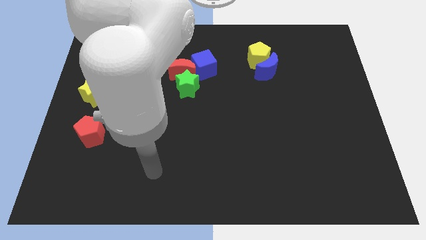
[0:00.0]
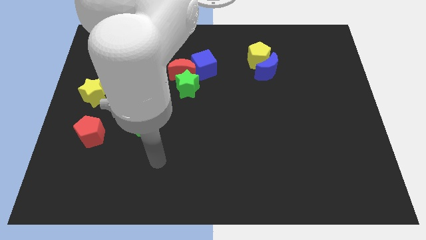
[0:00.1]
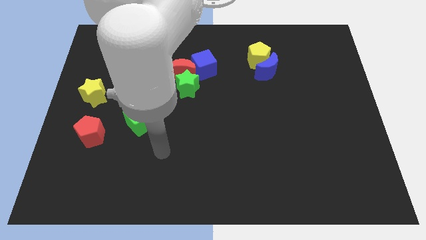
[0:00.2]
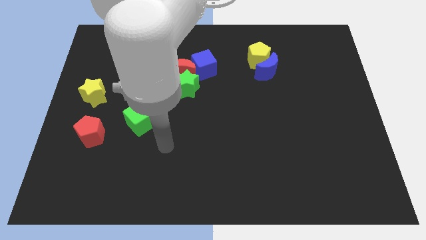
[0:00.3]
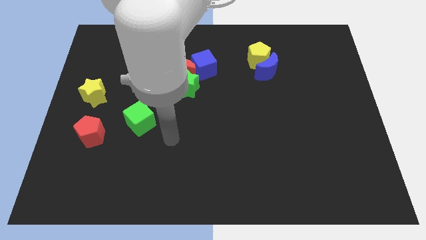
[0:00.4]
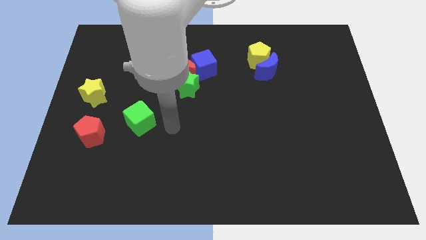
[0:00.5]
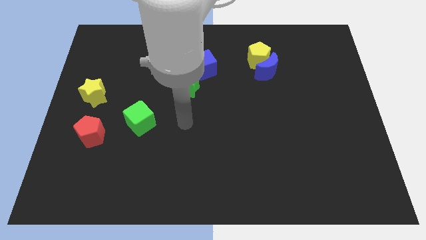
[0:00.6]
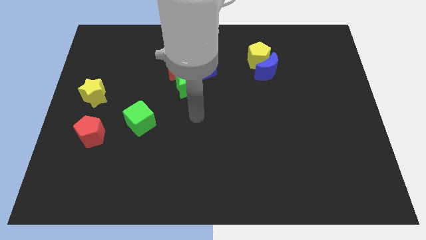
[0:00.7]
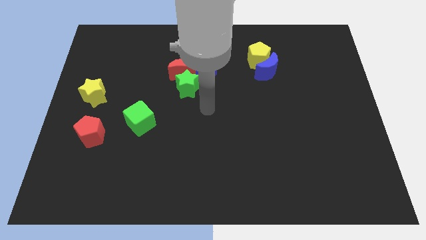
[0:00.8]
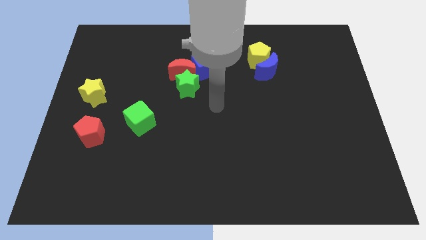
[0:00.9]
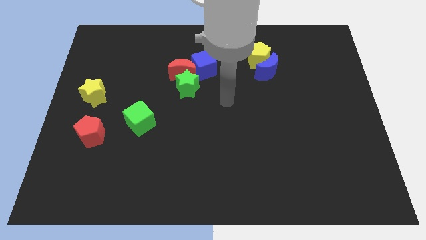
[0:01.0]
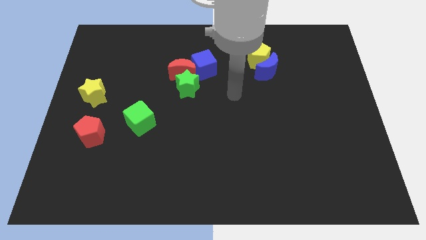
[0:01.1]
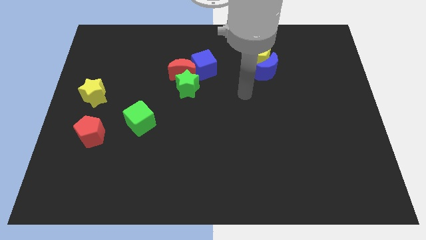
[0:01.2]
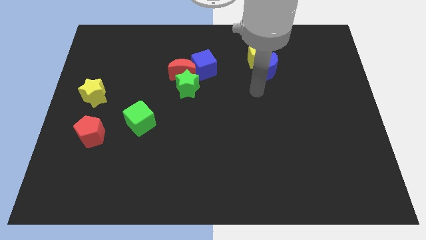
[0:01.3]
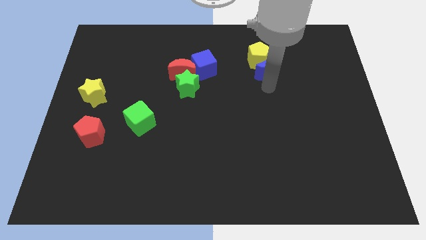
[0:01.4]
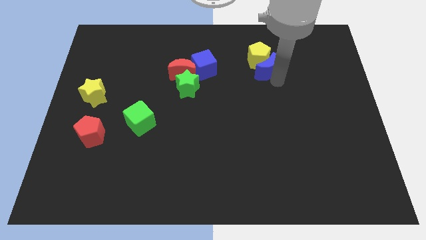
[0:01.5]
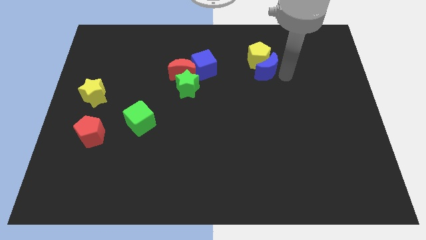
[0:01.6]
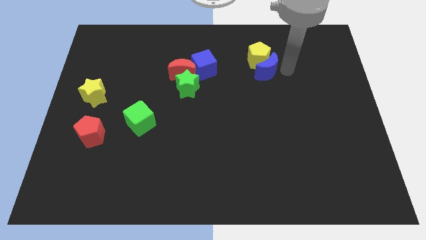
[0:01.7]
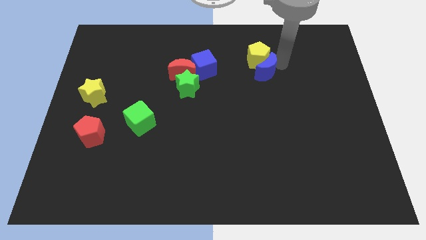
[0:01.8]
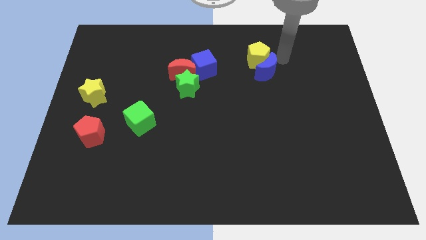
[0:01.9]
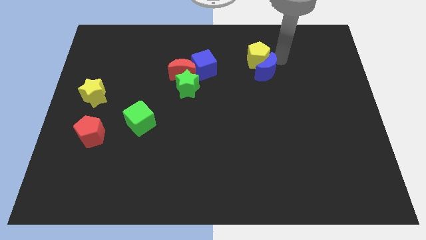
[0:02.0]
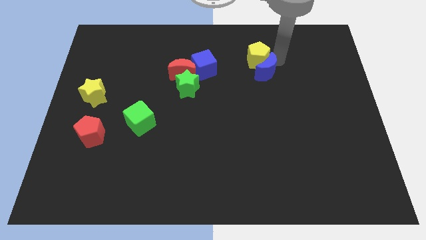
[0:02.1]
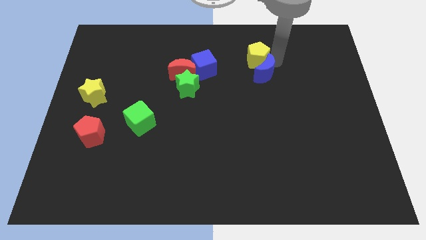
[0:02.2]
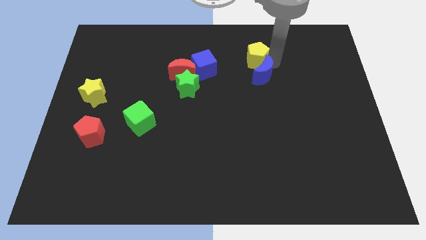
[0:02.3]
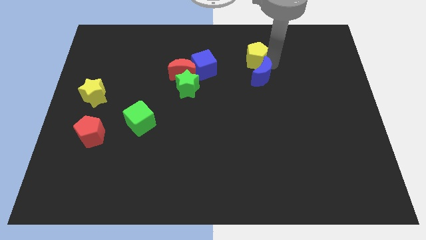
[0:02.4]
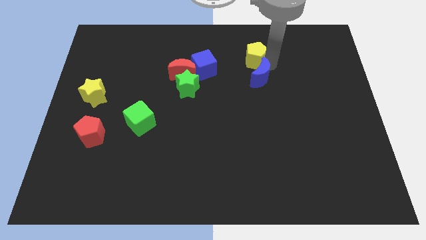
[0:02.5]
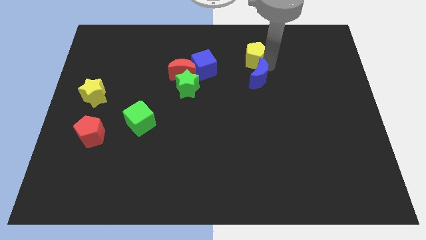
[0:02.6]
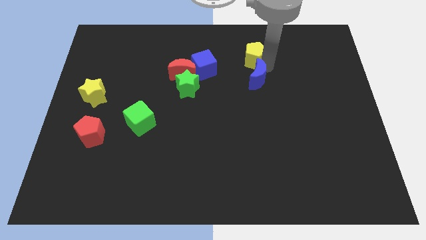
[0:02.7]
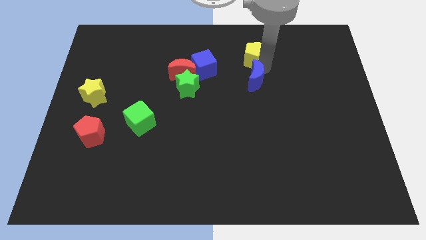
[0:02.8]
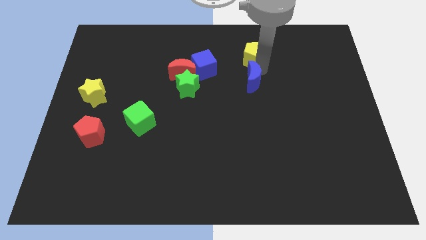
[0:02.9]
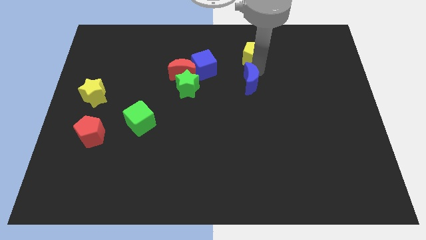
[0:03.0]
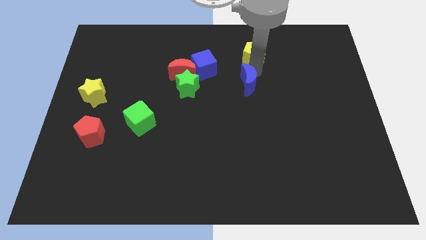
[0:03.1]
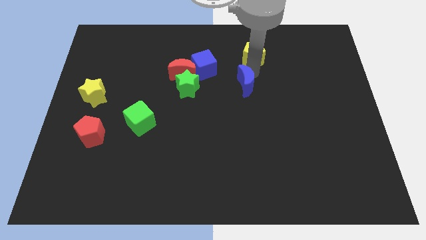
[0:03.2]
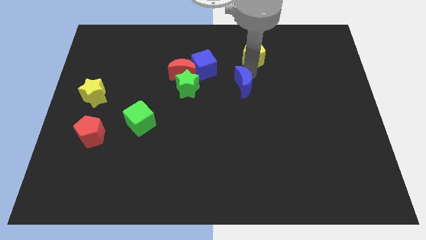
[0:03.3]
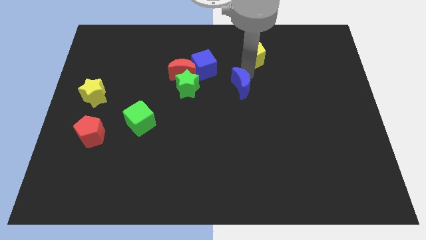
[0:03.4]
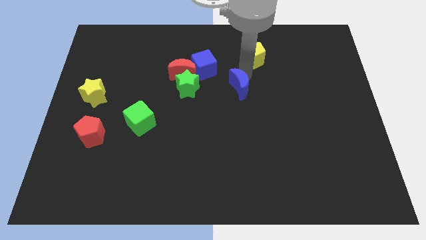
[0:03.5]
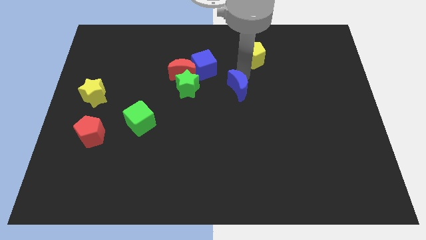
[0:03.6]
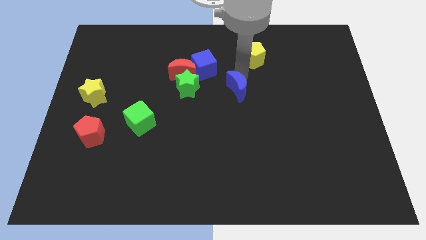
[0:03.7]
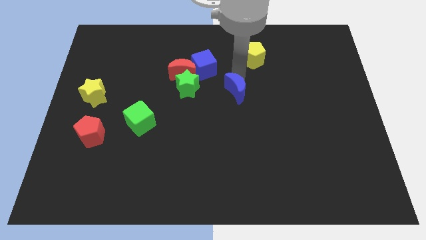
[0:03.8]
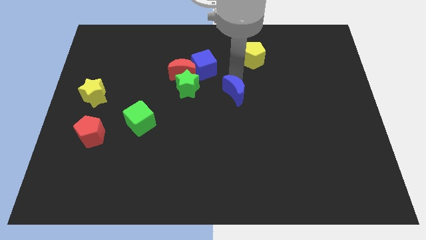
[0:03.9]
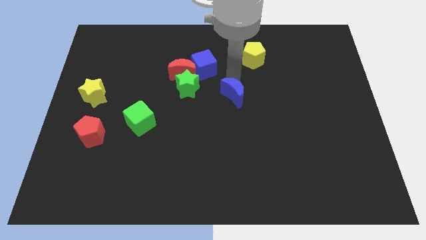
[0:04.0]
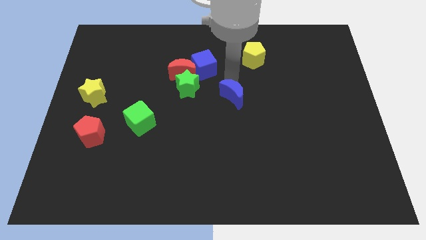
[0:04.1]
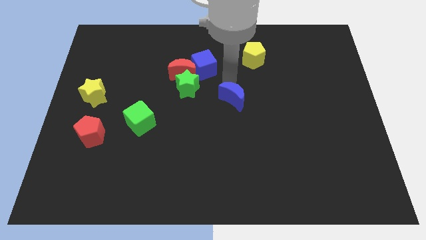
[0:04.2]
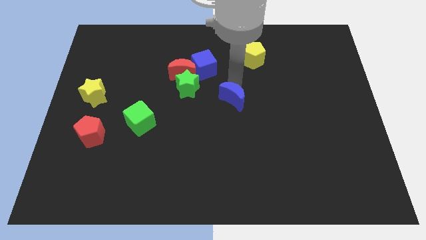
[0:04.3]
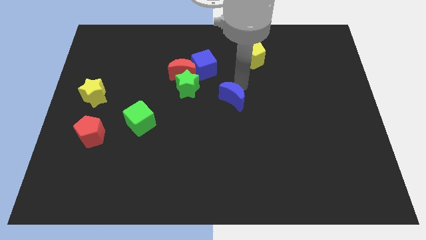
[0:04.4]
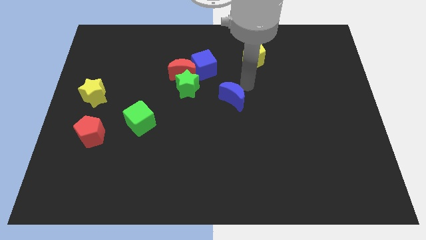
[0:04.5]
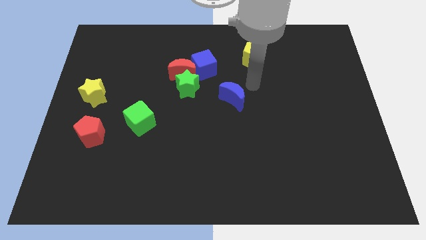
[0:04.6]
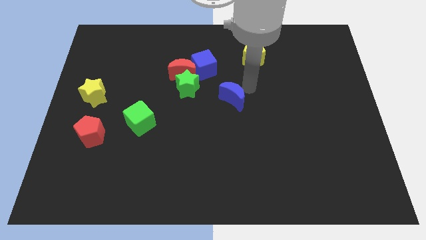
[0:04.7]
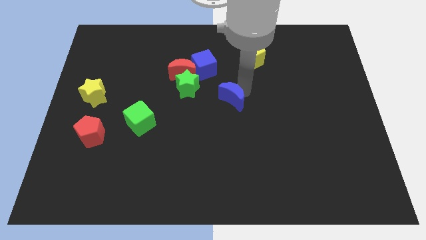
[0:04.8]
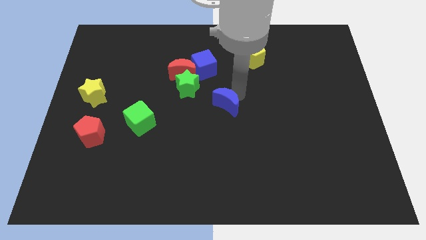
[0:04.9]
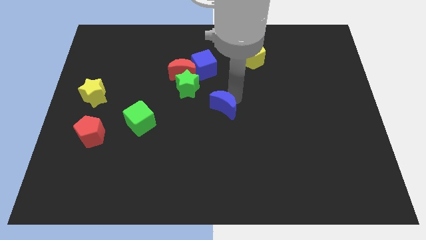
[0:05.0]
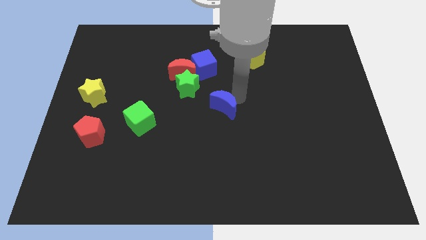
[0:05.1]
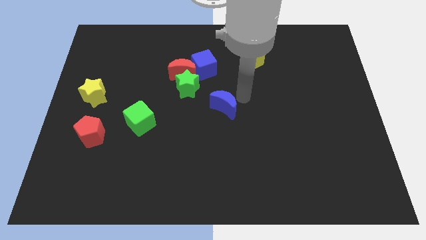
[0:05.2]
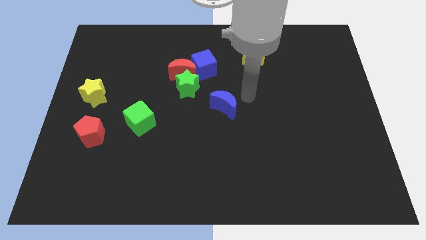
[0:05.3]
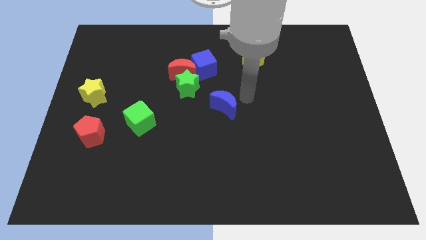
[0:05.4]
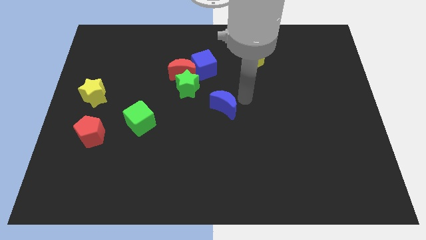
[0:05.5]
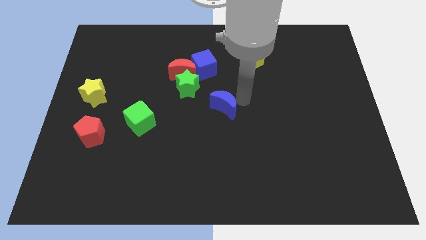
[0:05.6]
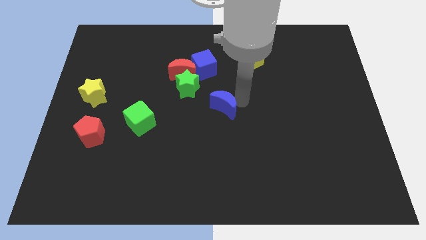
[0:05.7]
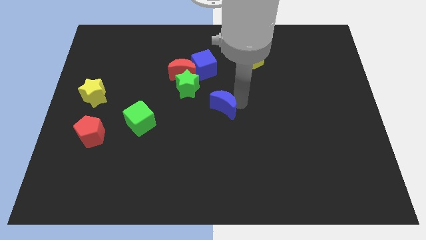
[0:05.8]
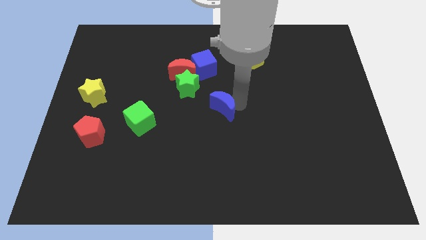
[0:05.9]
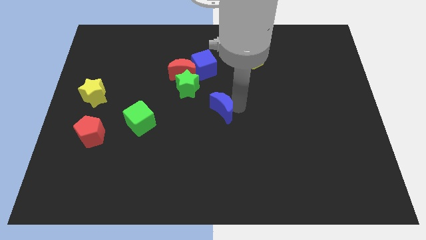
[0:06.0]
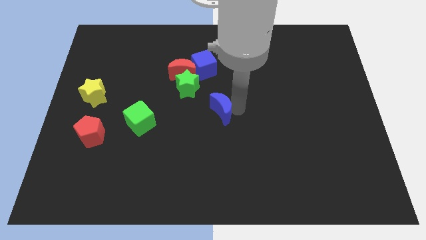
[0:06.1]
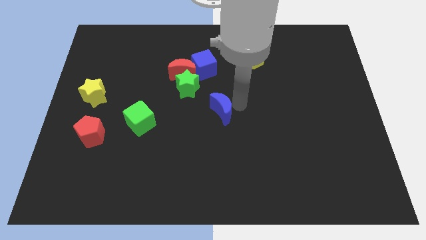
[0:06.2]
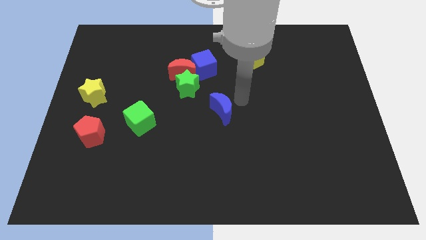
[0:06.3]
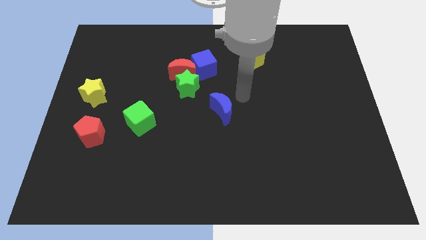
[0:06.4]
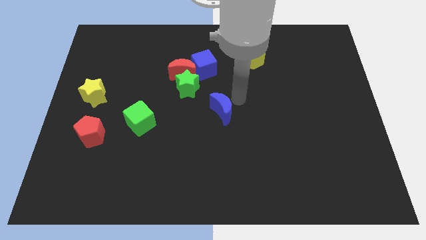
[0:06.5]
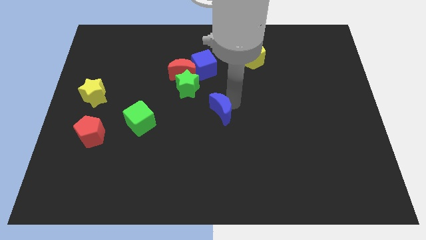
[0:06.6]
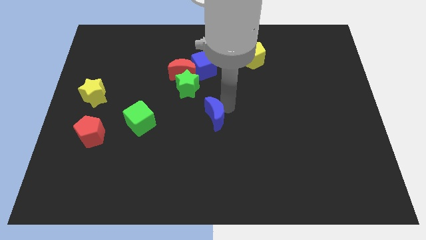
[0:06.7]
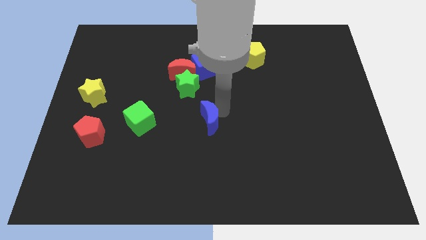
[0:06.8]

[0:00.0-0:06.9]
push the blue moon diagonally downwards and to the left

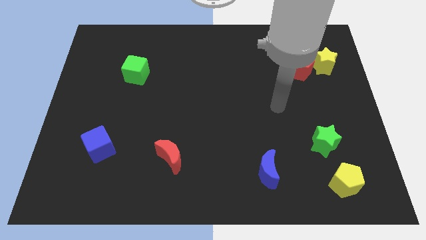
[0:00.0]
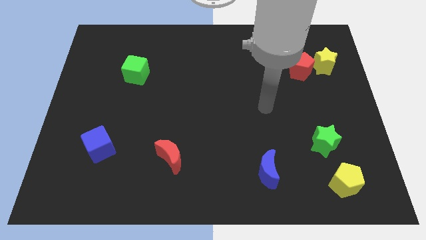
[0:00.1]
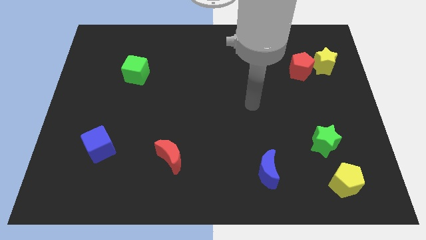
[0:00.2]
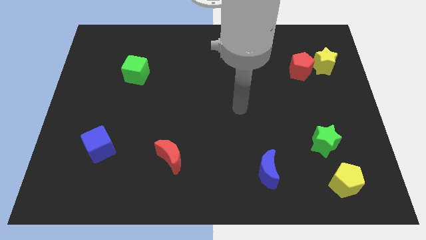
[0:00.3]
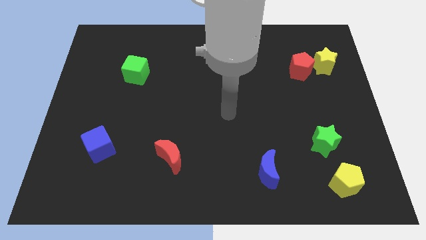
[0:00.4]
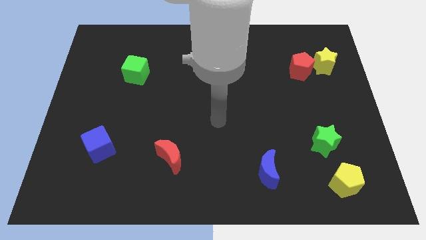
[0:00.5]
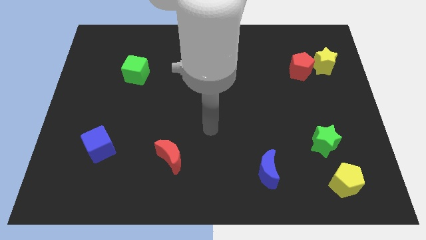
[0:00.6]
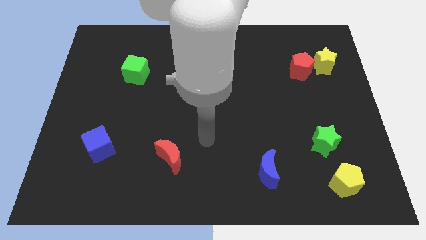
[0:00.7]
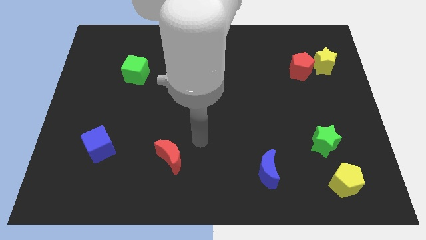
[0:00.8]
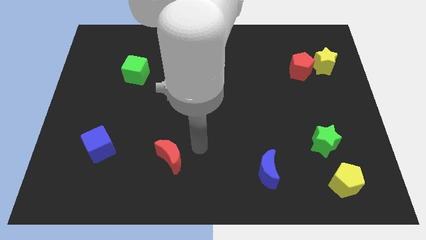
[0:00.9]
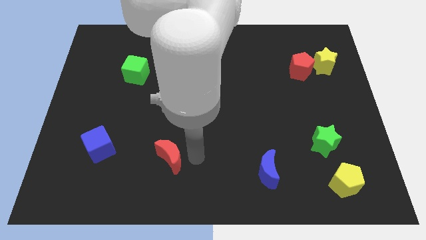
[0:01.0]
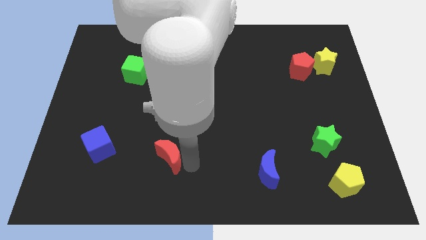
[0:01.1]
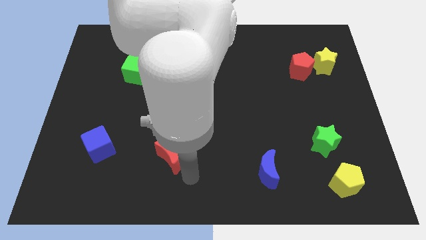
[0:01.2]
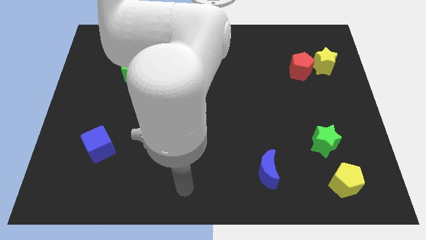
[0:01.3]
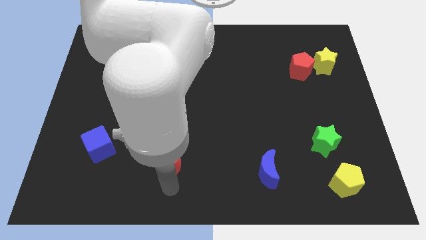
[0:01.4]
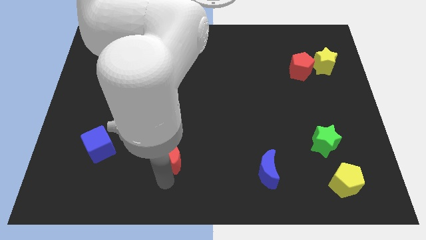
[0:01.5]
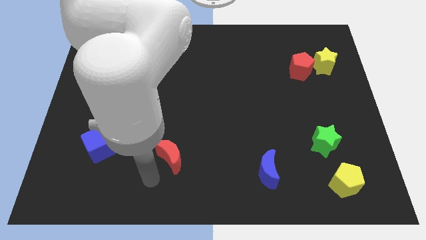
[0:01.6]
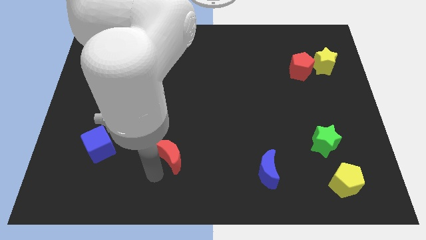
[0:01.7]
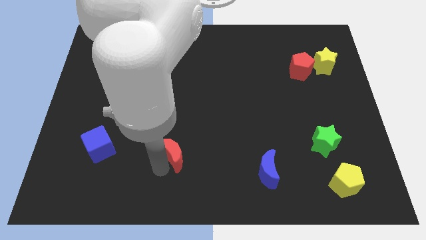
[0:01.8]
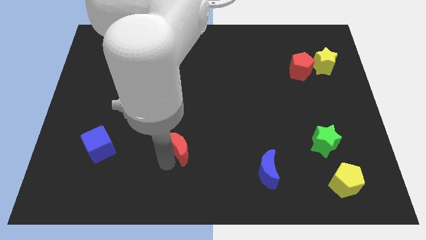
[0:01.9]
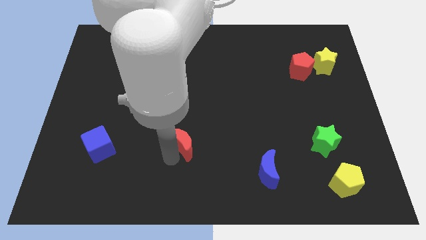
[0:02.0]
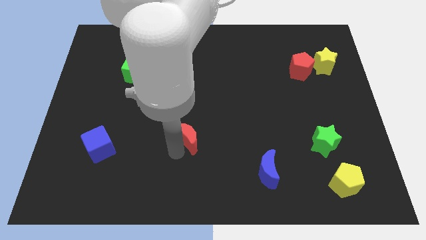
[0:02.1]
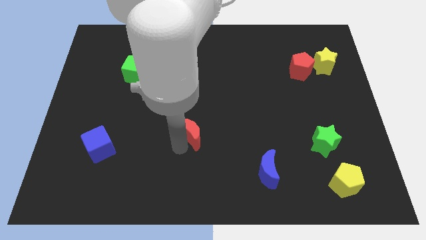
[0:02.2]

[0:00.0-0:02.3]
slide the red moon a little bit diagonally upwards and right
